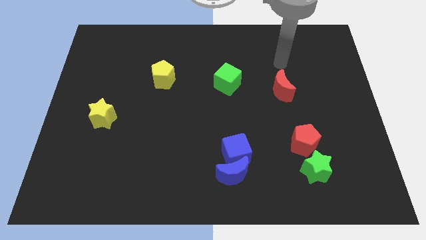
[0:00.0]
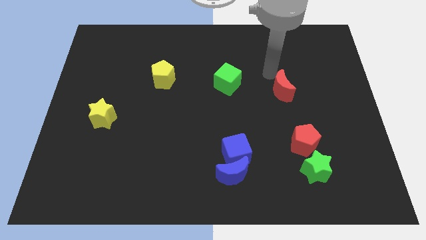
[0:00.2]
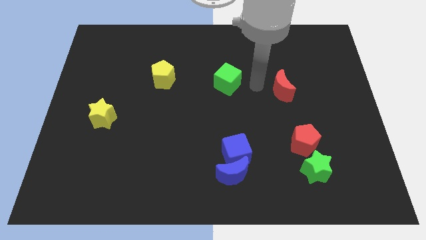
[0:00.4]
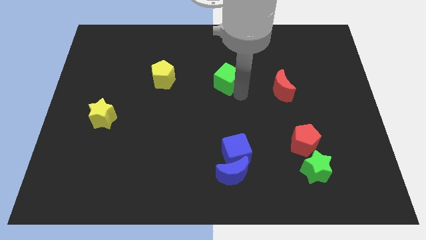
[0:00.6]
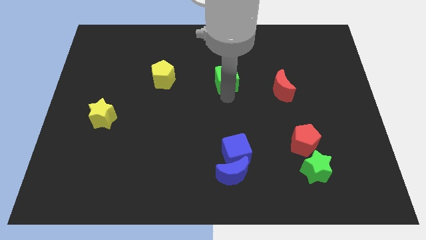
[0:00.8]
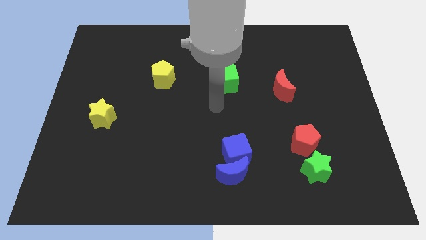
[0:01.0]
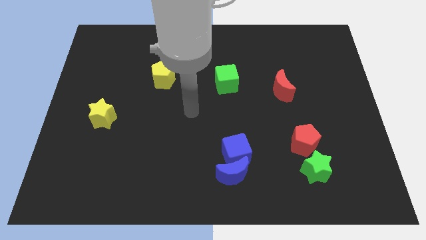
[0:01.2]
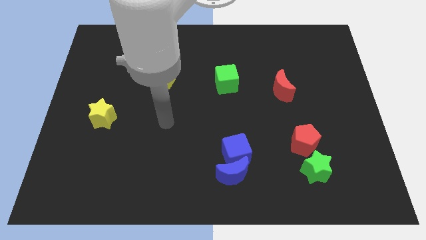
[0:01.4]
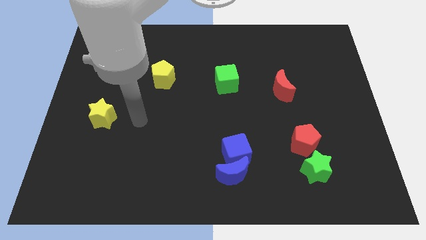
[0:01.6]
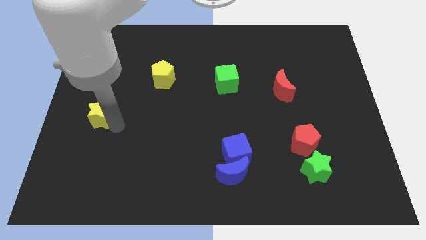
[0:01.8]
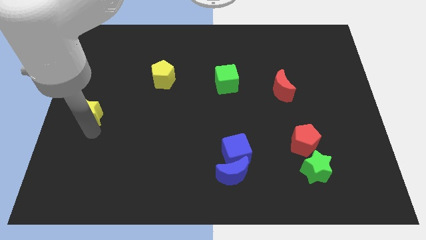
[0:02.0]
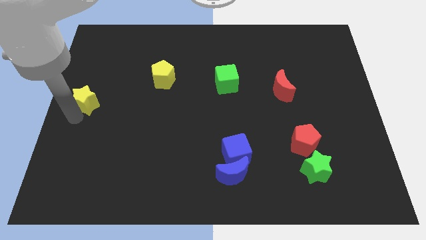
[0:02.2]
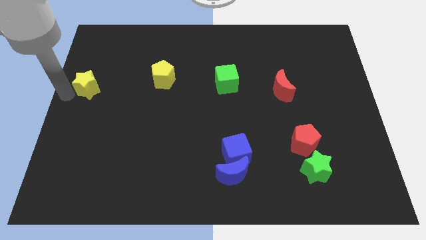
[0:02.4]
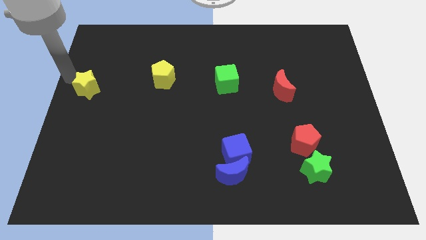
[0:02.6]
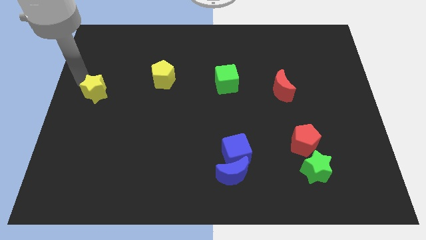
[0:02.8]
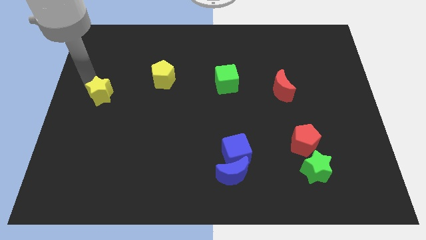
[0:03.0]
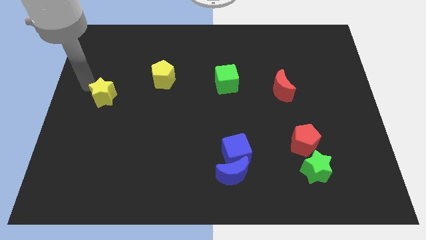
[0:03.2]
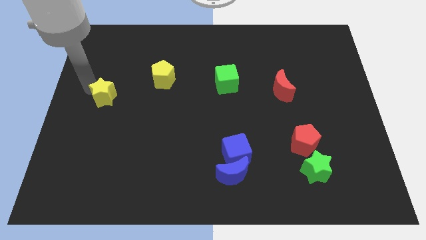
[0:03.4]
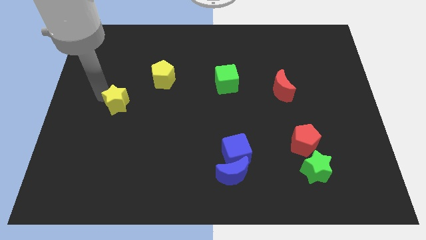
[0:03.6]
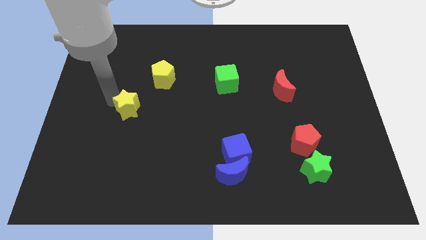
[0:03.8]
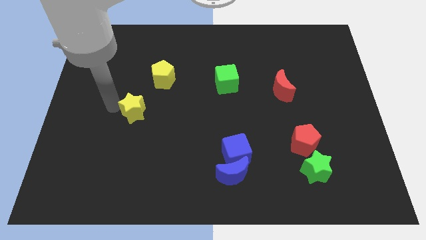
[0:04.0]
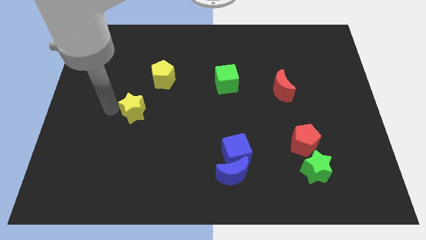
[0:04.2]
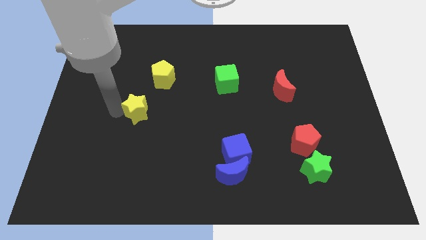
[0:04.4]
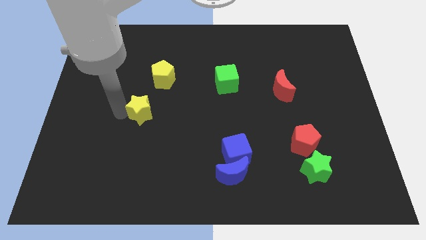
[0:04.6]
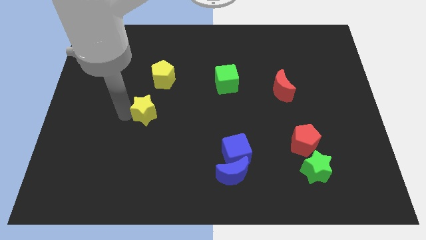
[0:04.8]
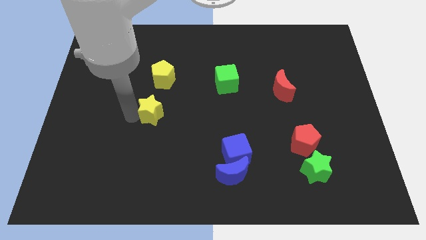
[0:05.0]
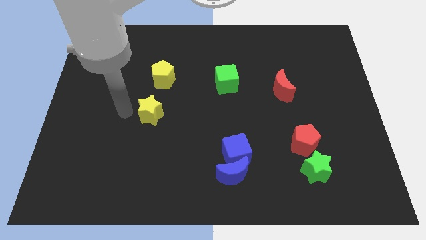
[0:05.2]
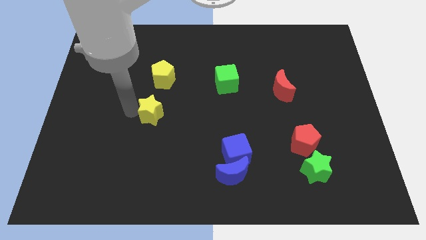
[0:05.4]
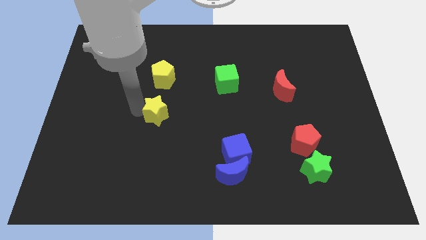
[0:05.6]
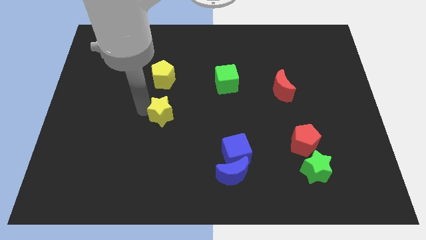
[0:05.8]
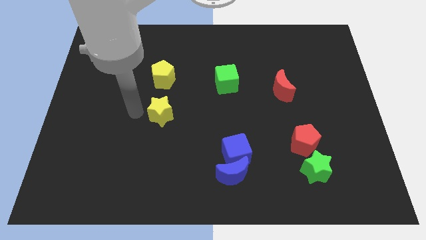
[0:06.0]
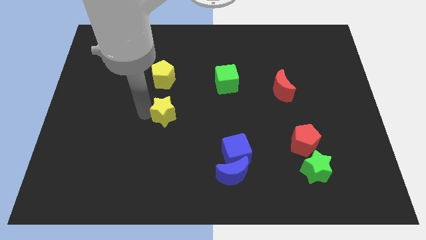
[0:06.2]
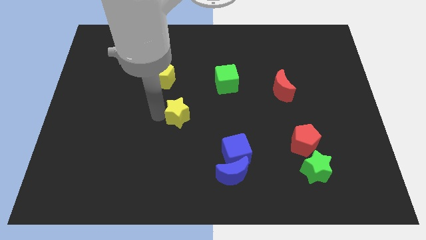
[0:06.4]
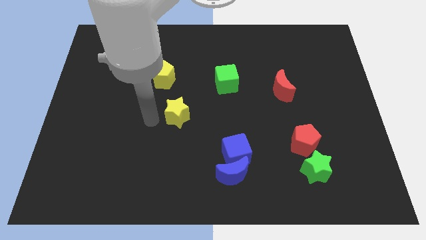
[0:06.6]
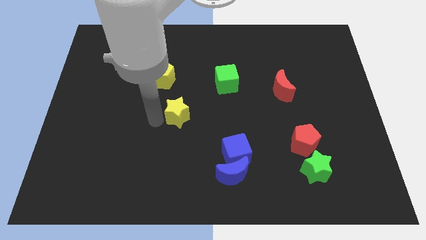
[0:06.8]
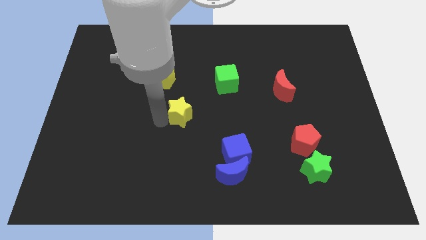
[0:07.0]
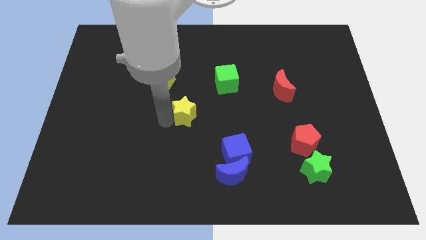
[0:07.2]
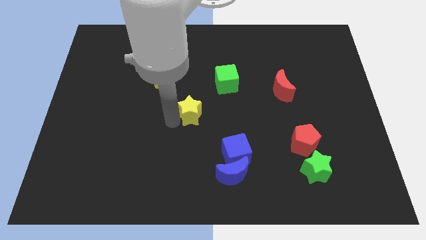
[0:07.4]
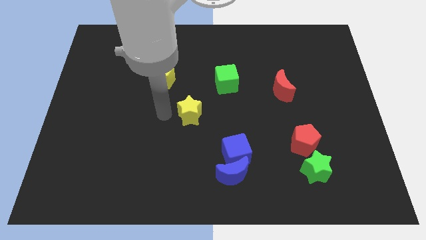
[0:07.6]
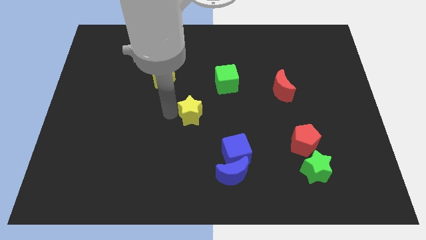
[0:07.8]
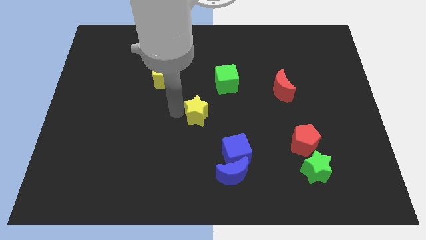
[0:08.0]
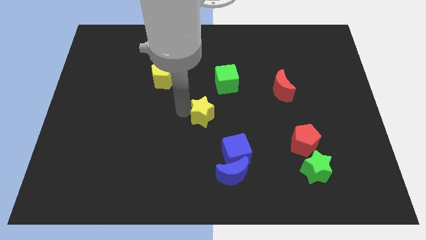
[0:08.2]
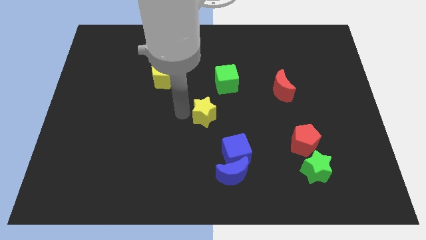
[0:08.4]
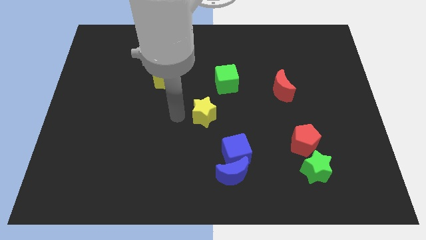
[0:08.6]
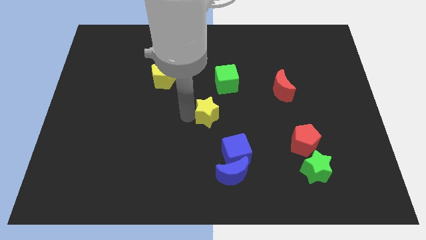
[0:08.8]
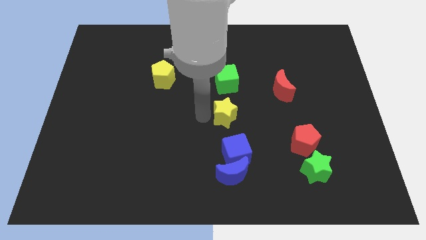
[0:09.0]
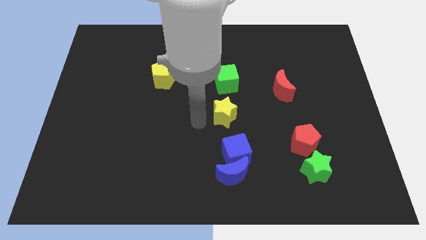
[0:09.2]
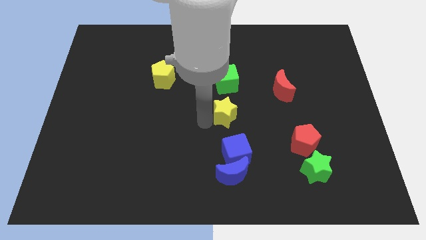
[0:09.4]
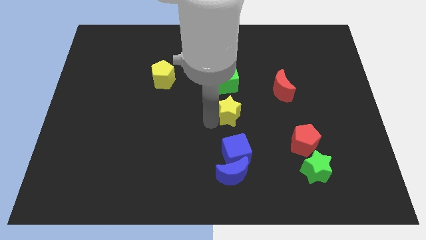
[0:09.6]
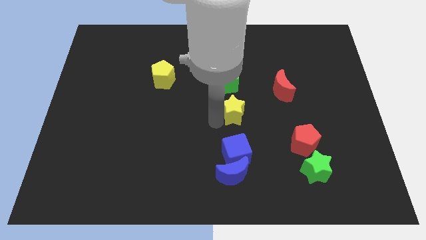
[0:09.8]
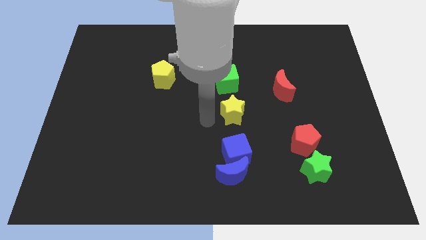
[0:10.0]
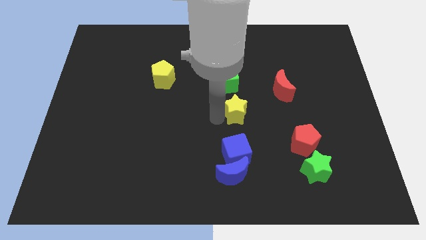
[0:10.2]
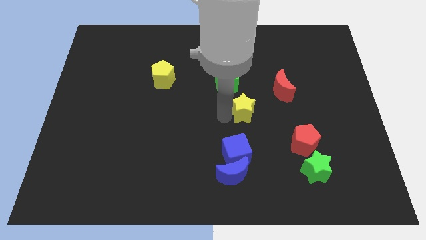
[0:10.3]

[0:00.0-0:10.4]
move the yellow star to the bottom left side of the red moon

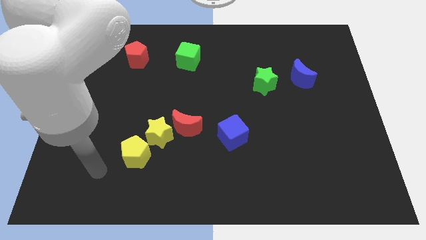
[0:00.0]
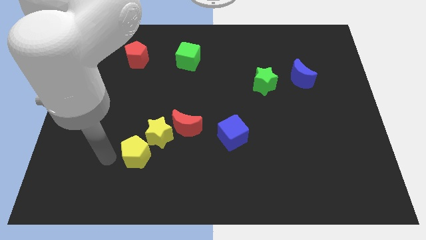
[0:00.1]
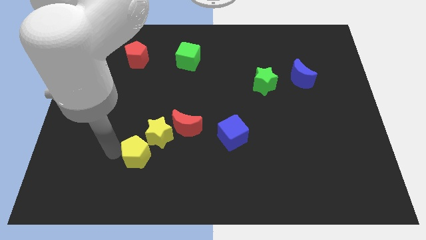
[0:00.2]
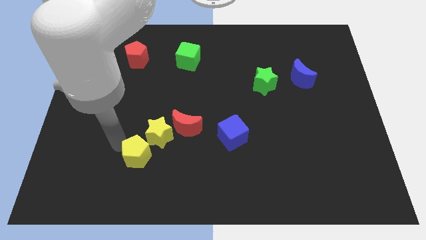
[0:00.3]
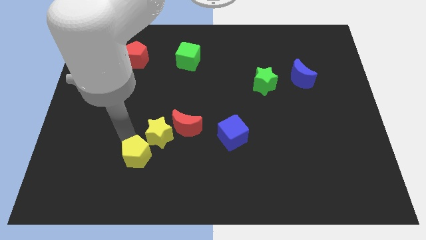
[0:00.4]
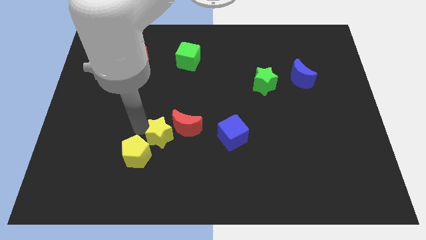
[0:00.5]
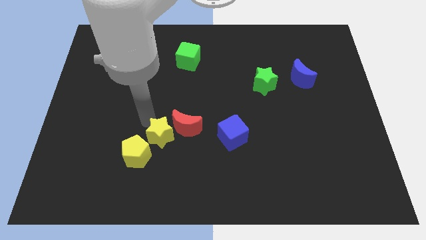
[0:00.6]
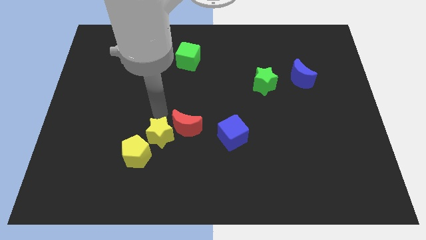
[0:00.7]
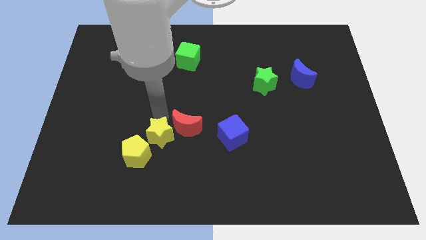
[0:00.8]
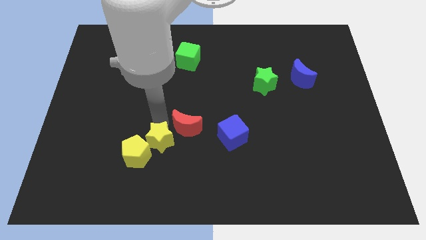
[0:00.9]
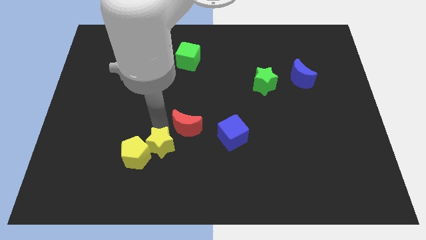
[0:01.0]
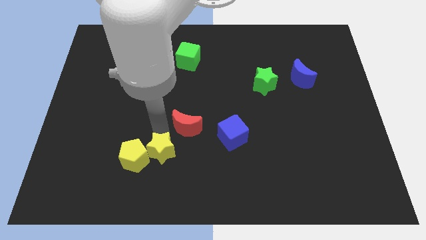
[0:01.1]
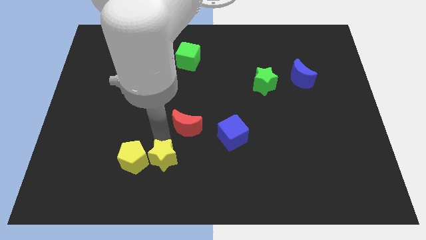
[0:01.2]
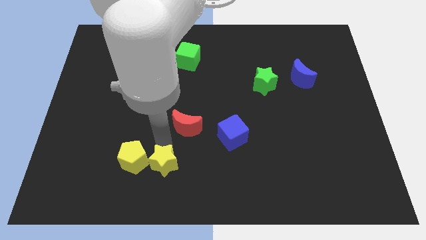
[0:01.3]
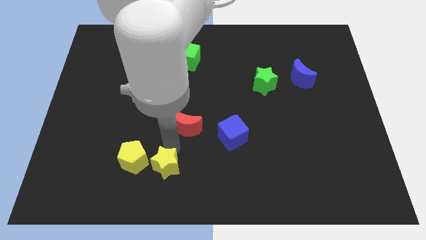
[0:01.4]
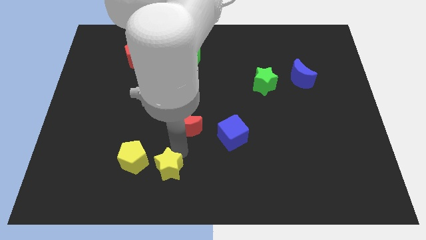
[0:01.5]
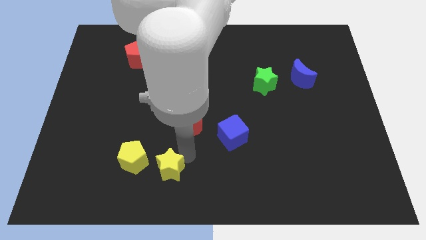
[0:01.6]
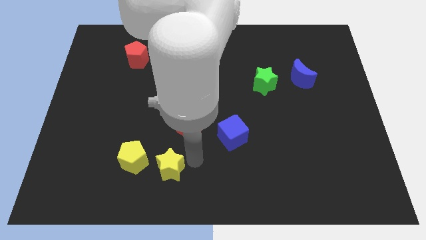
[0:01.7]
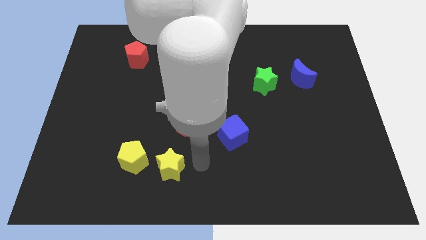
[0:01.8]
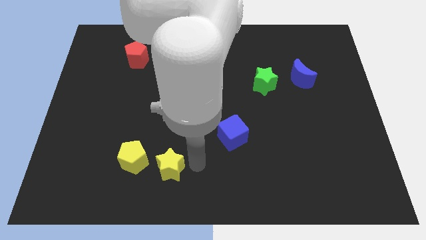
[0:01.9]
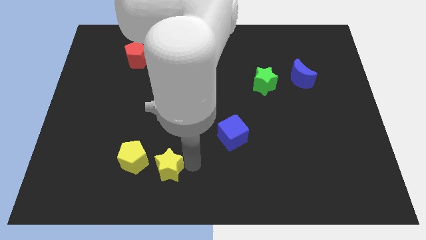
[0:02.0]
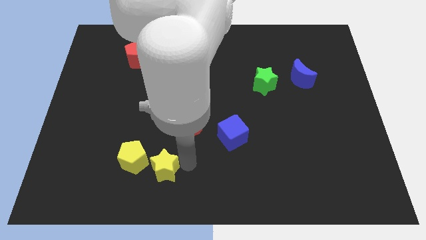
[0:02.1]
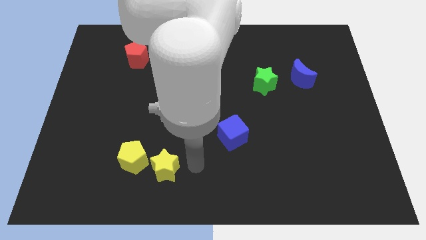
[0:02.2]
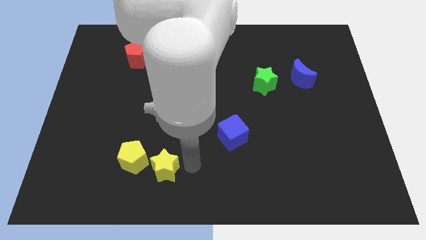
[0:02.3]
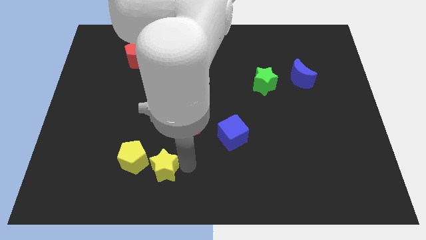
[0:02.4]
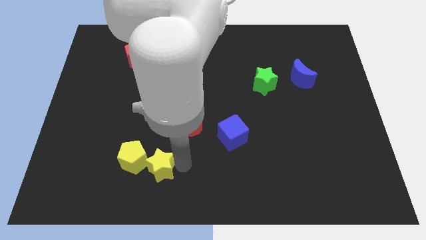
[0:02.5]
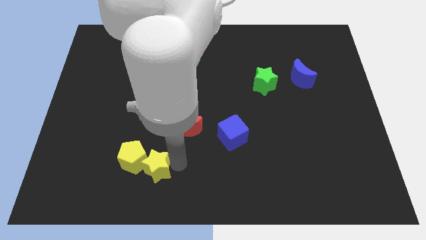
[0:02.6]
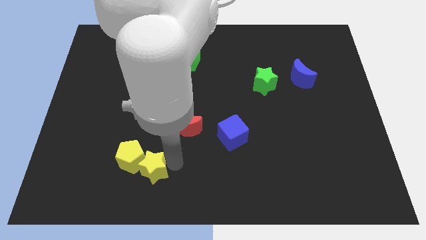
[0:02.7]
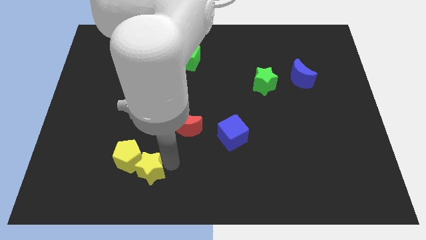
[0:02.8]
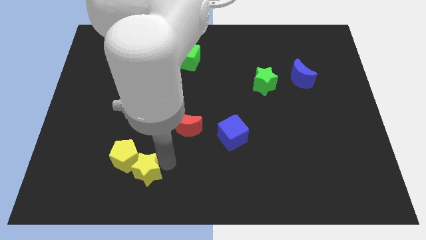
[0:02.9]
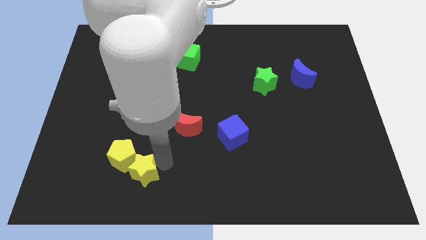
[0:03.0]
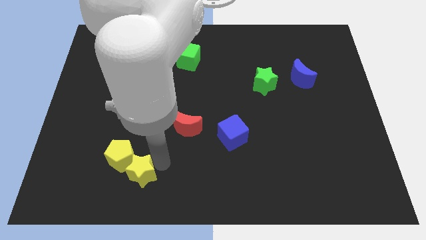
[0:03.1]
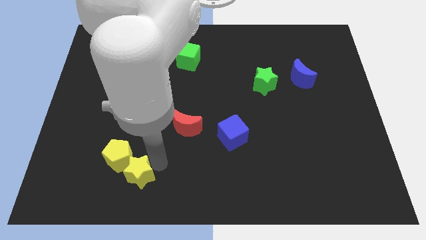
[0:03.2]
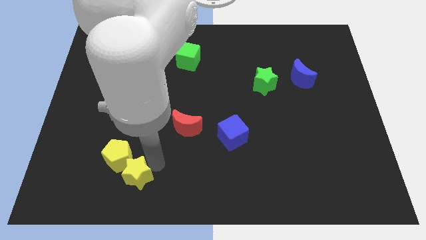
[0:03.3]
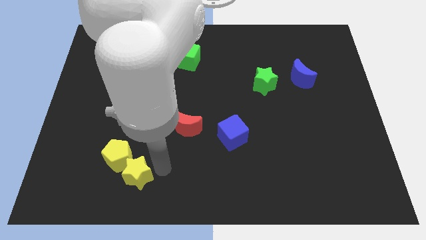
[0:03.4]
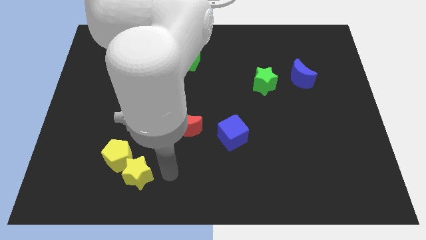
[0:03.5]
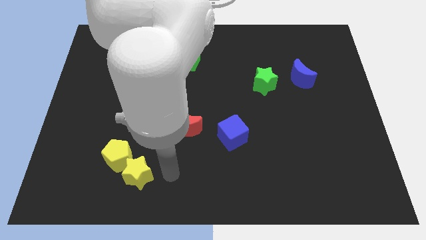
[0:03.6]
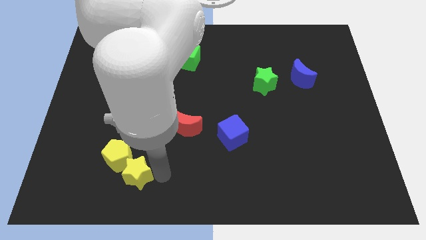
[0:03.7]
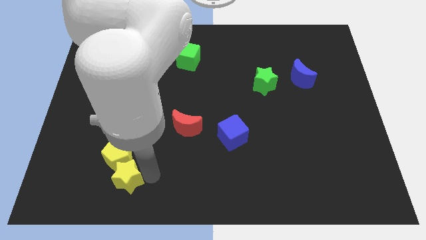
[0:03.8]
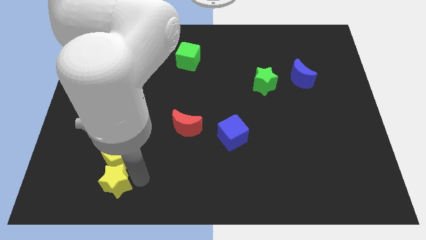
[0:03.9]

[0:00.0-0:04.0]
slide the yellow star to the bottom left side of the yellow pentagon
